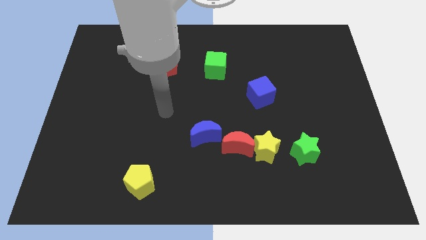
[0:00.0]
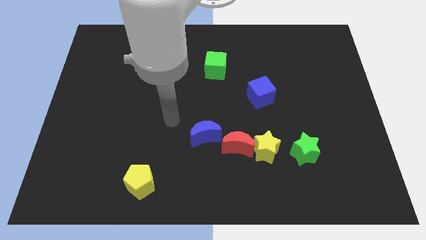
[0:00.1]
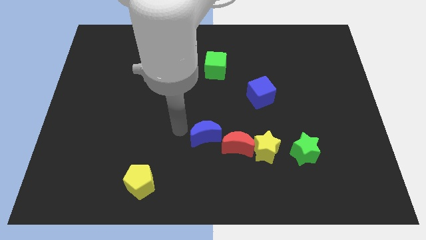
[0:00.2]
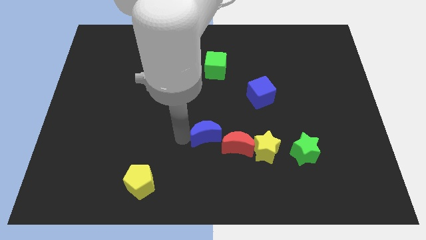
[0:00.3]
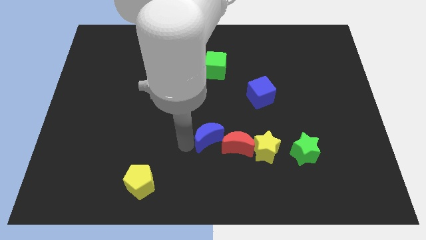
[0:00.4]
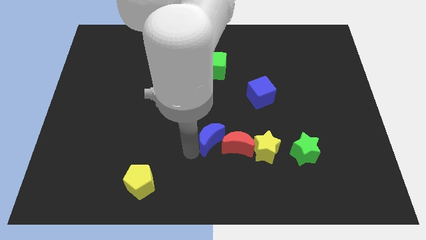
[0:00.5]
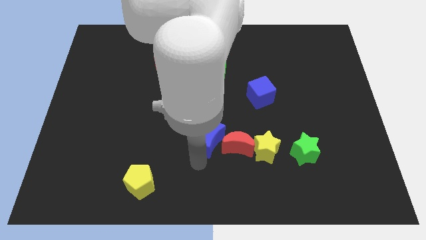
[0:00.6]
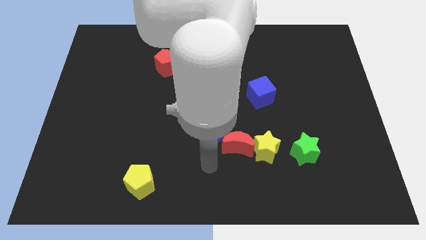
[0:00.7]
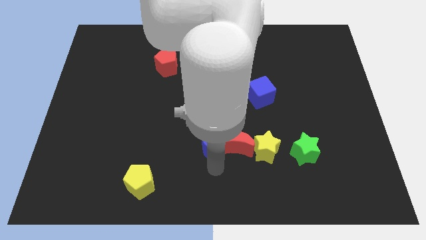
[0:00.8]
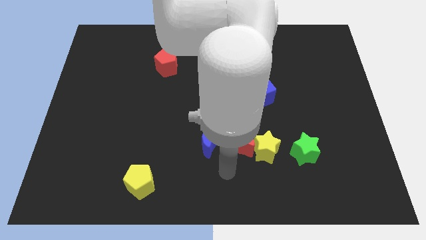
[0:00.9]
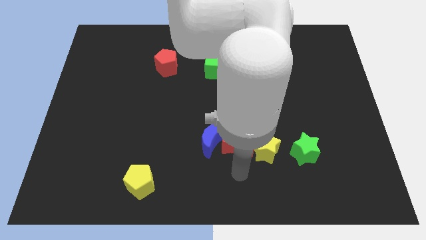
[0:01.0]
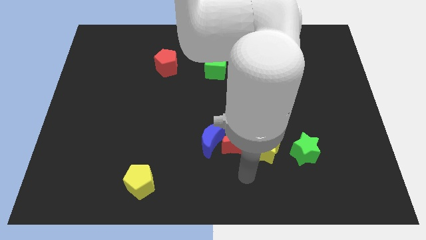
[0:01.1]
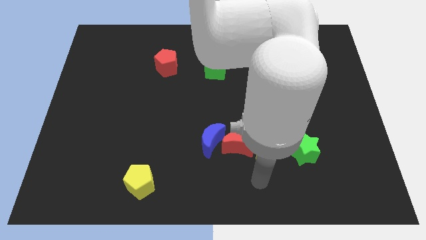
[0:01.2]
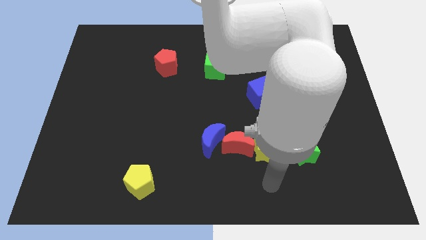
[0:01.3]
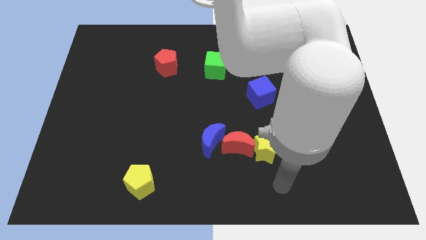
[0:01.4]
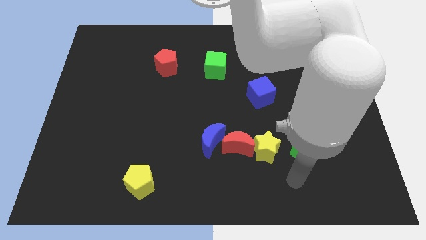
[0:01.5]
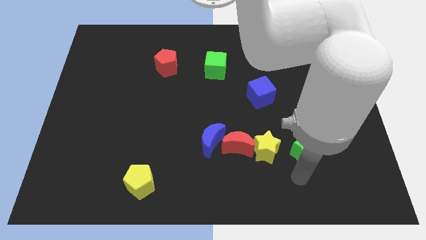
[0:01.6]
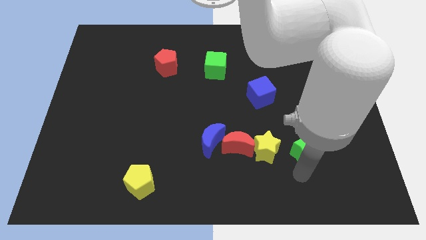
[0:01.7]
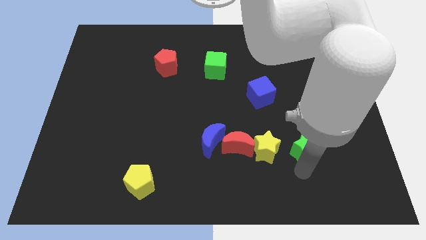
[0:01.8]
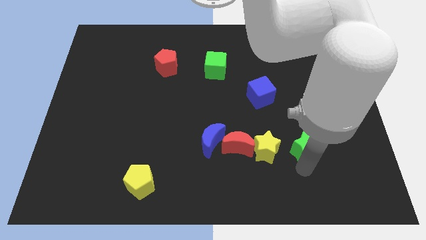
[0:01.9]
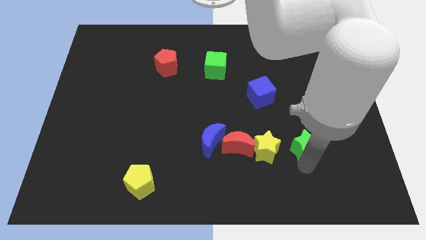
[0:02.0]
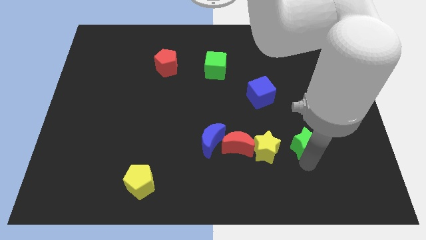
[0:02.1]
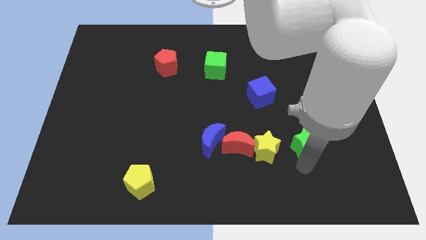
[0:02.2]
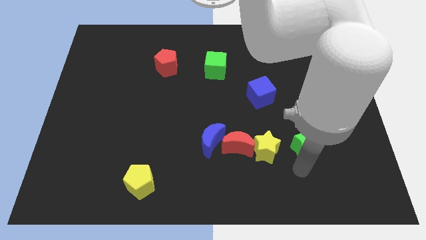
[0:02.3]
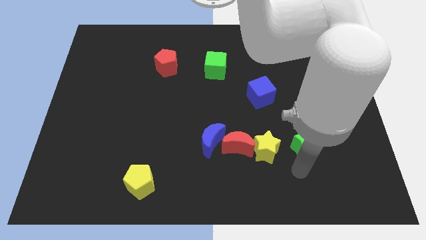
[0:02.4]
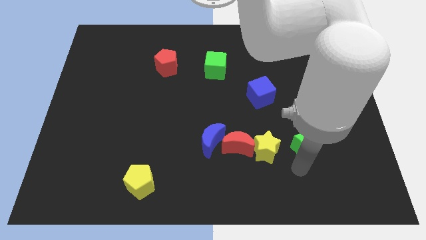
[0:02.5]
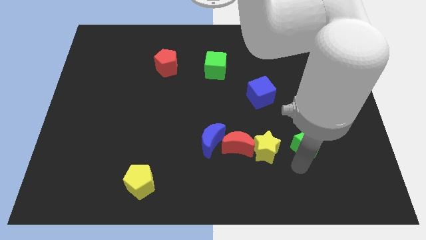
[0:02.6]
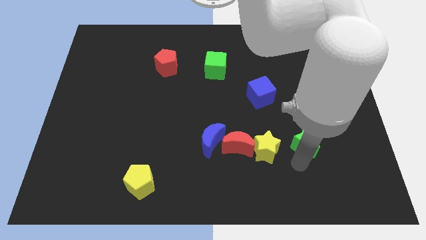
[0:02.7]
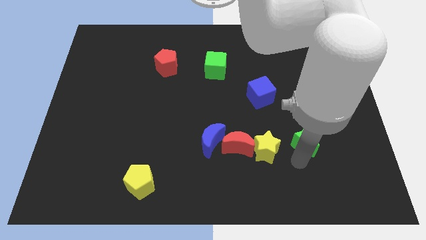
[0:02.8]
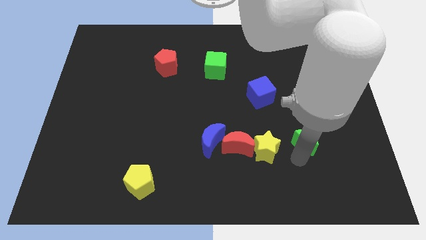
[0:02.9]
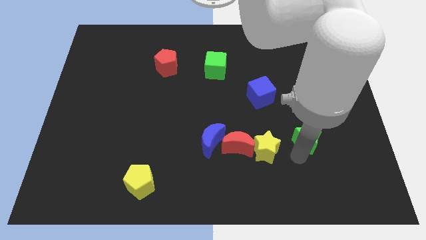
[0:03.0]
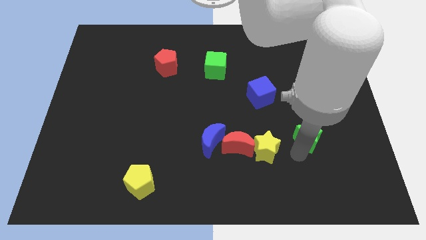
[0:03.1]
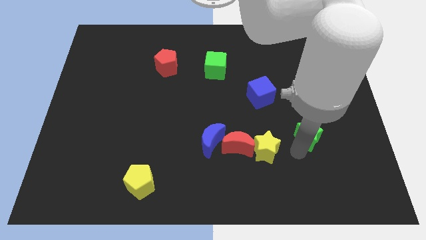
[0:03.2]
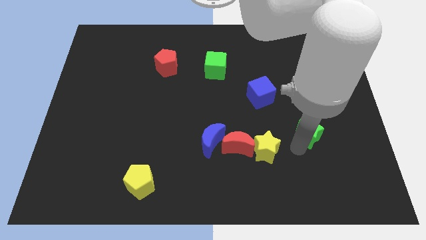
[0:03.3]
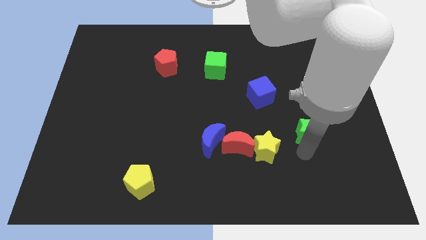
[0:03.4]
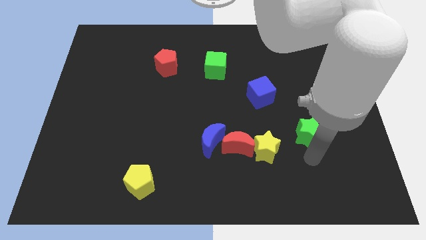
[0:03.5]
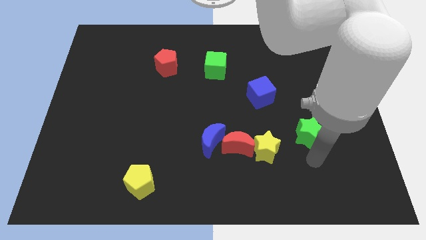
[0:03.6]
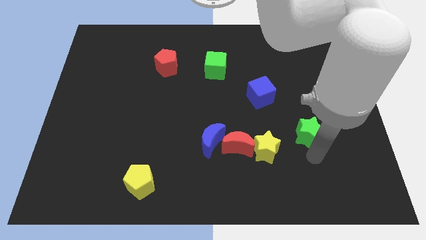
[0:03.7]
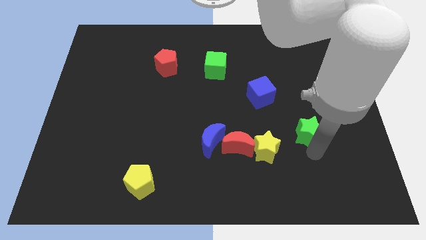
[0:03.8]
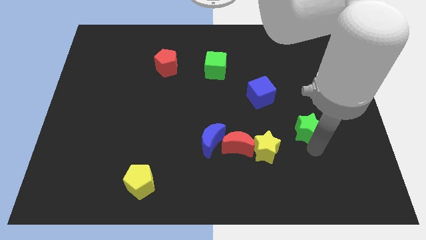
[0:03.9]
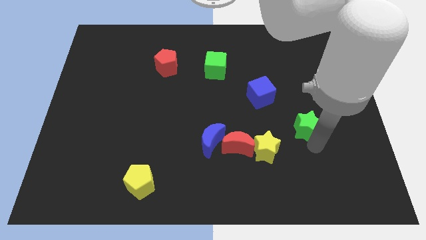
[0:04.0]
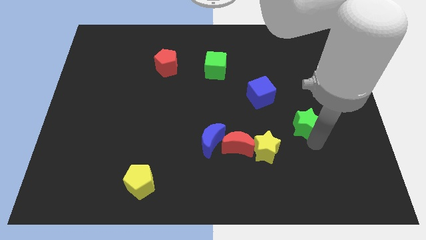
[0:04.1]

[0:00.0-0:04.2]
push the green star upwards a little bit

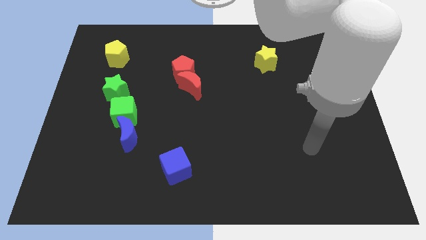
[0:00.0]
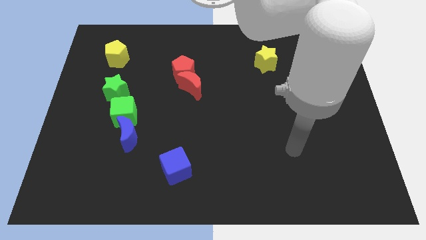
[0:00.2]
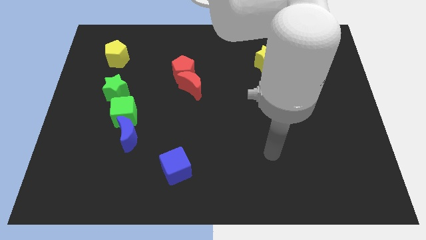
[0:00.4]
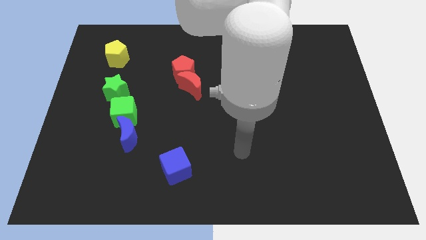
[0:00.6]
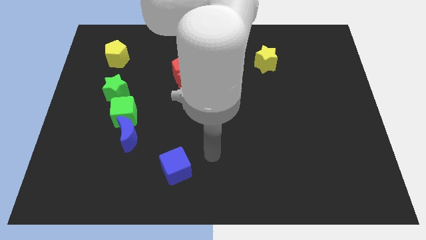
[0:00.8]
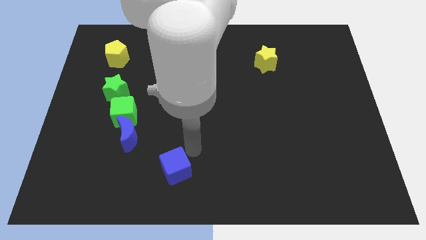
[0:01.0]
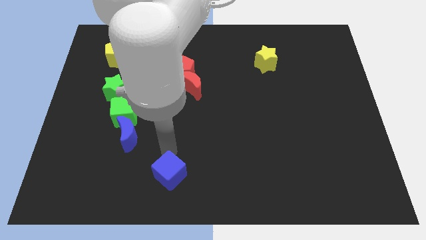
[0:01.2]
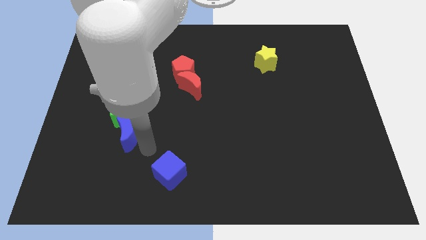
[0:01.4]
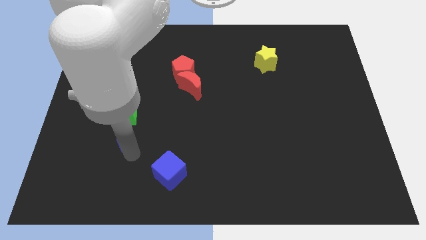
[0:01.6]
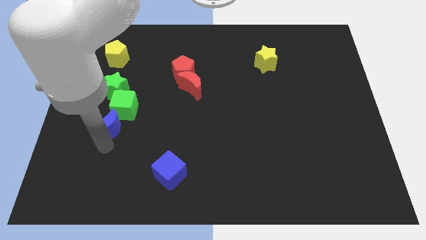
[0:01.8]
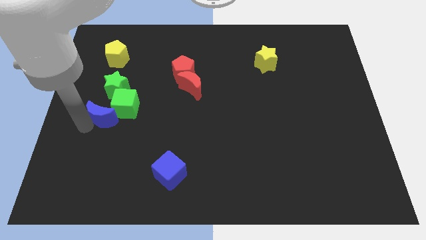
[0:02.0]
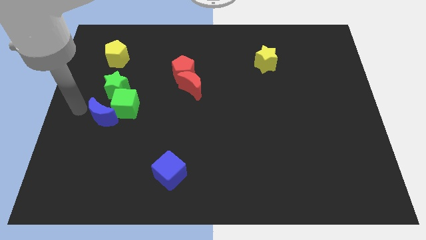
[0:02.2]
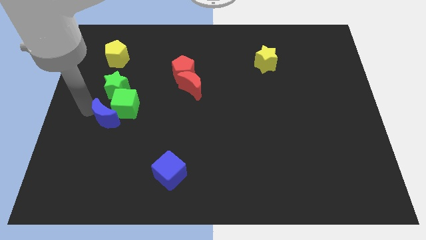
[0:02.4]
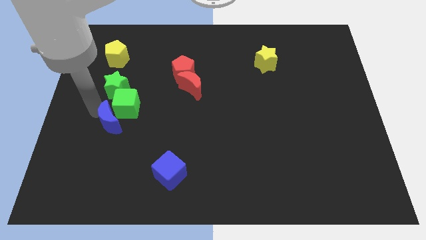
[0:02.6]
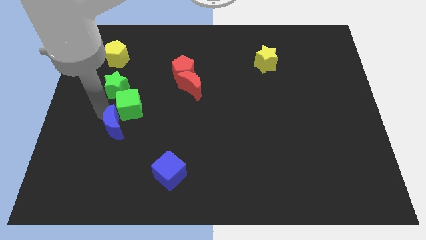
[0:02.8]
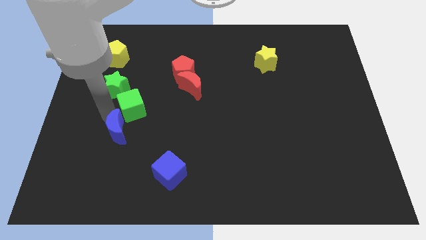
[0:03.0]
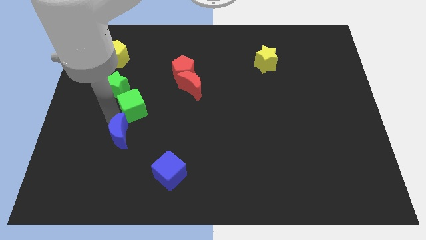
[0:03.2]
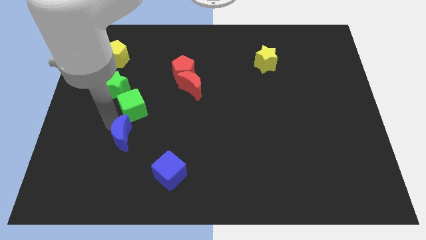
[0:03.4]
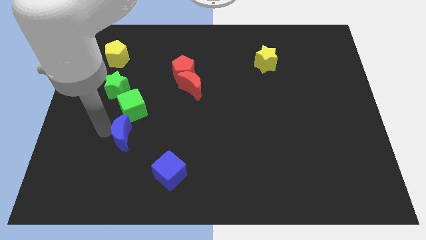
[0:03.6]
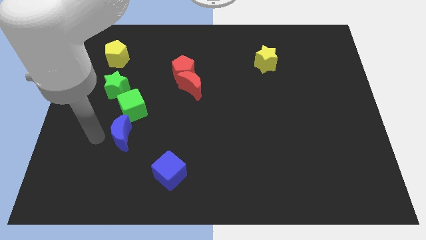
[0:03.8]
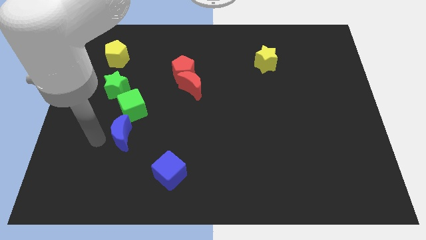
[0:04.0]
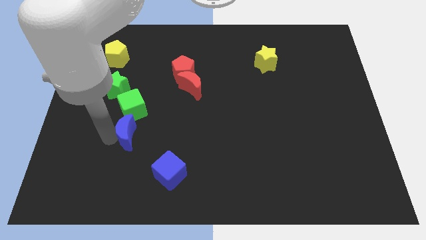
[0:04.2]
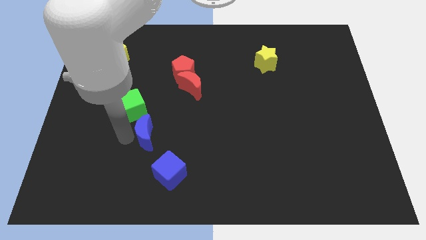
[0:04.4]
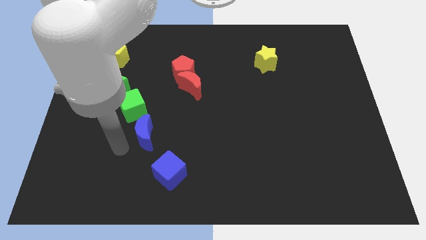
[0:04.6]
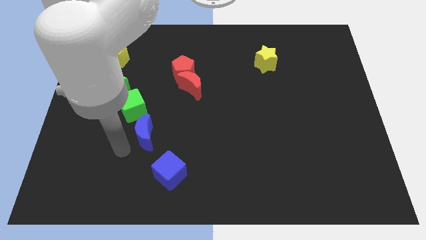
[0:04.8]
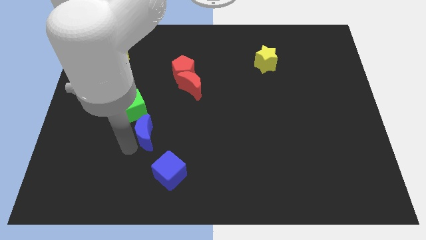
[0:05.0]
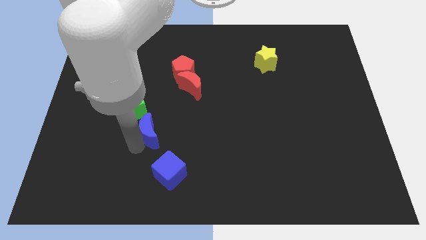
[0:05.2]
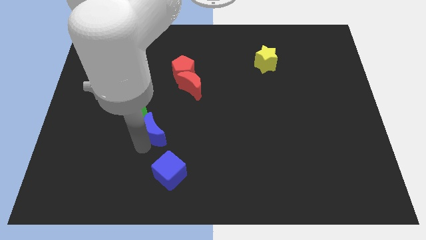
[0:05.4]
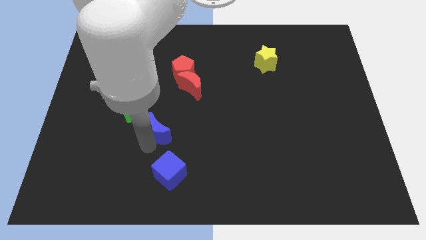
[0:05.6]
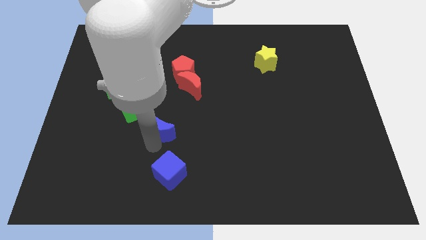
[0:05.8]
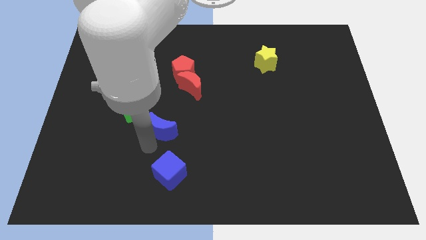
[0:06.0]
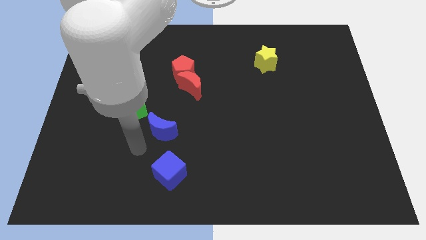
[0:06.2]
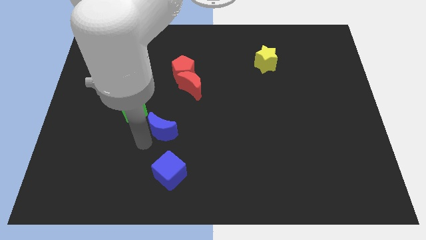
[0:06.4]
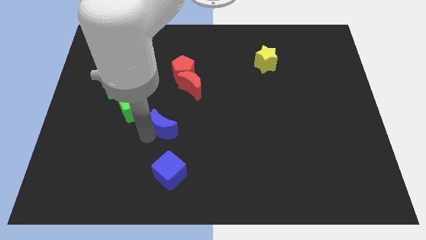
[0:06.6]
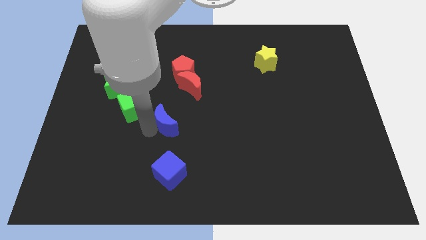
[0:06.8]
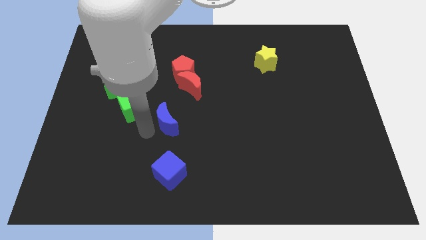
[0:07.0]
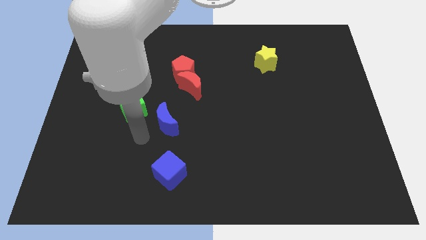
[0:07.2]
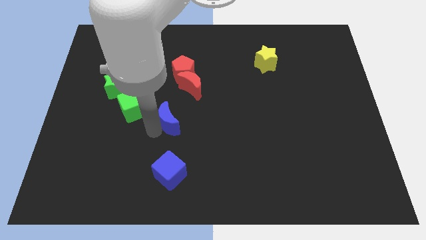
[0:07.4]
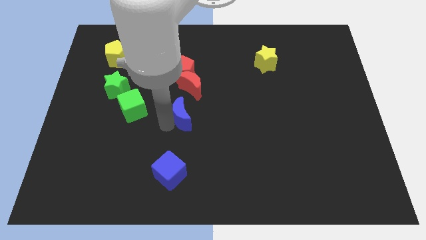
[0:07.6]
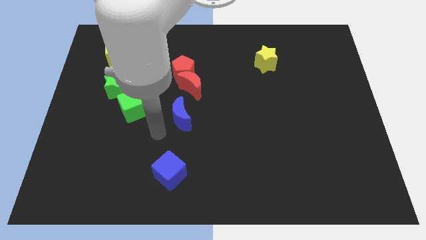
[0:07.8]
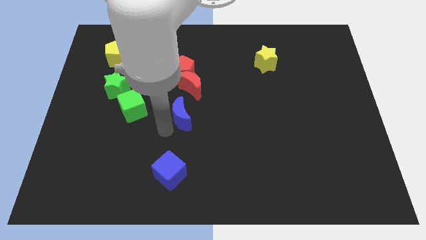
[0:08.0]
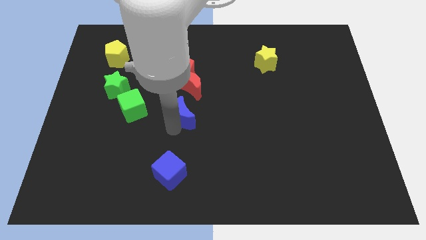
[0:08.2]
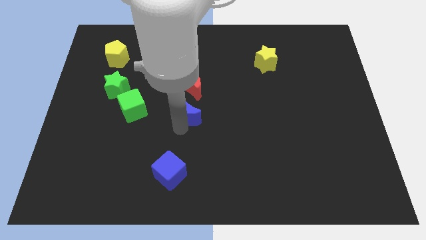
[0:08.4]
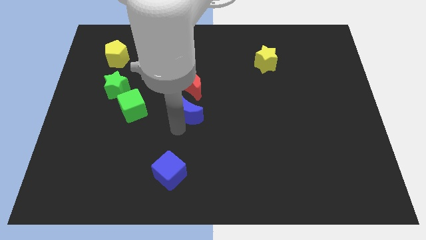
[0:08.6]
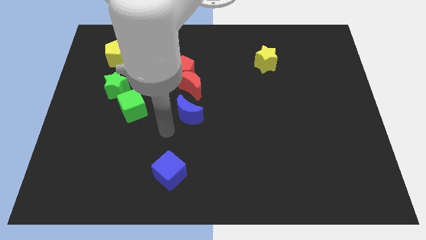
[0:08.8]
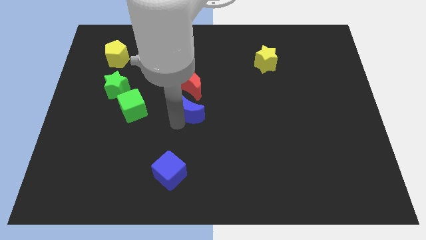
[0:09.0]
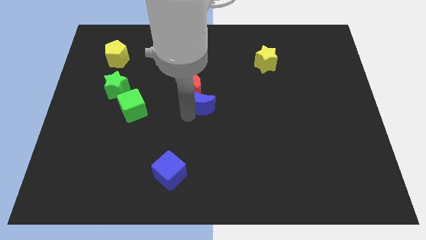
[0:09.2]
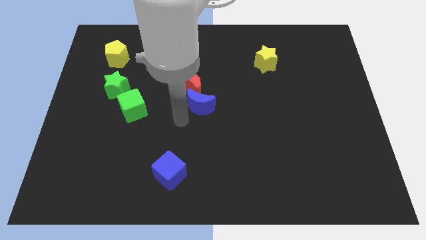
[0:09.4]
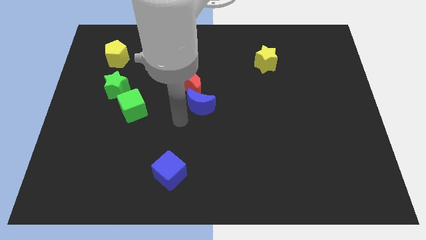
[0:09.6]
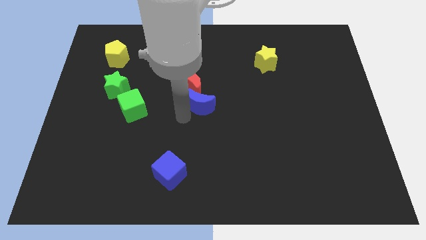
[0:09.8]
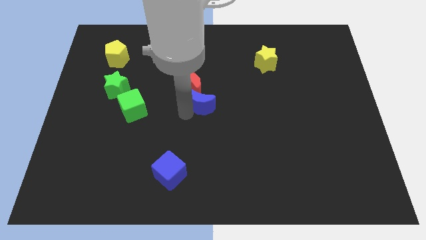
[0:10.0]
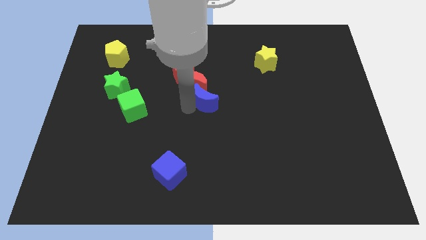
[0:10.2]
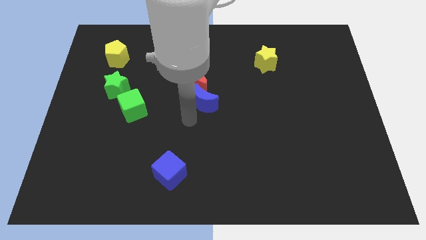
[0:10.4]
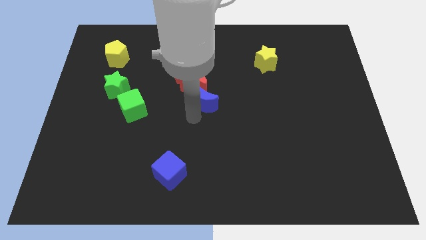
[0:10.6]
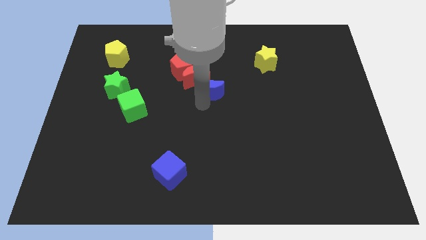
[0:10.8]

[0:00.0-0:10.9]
push the blue moon up and to the right diagonally
